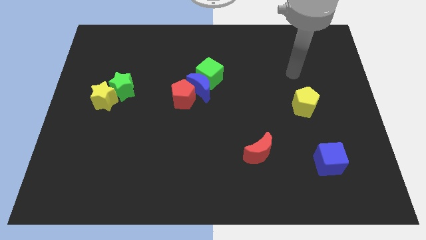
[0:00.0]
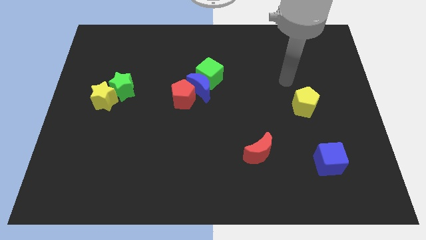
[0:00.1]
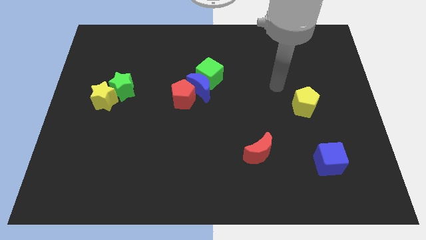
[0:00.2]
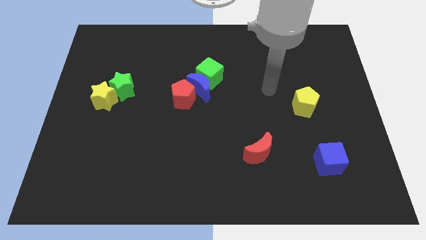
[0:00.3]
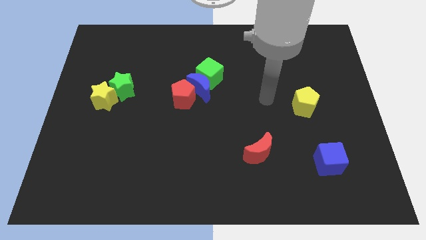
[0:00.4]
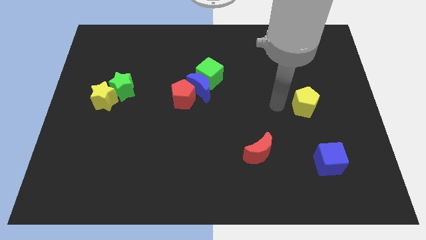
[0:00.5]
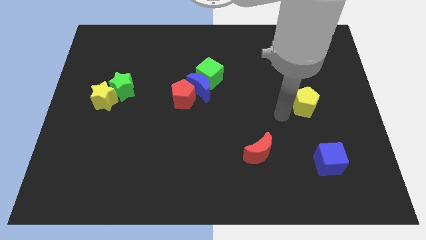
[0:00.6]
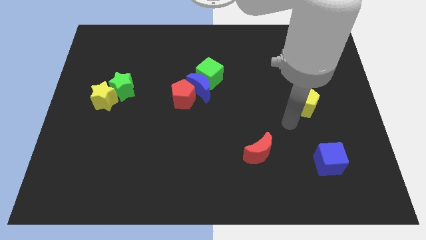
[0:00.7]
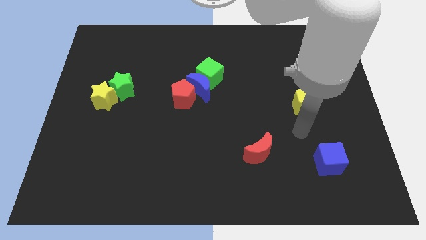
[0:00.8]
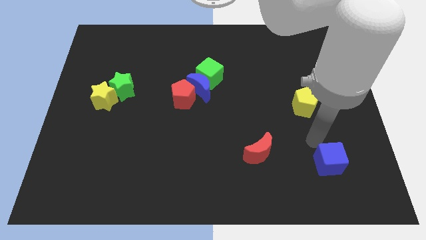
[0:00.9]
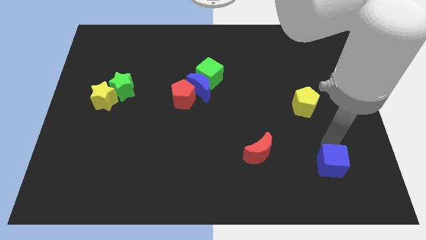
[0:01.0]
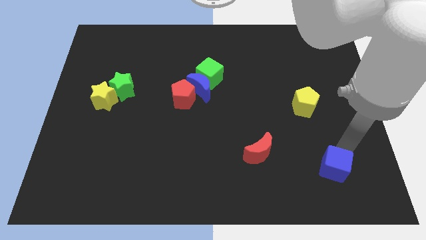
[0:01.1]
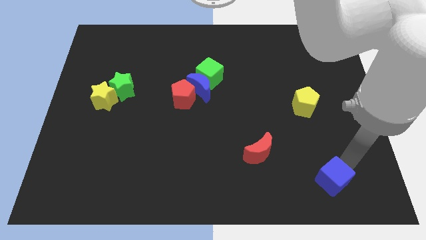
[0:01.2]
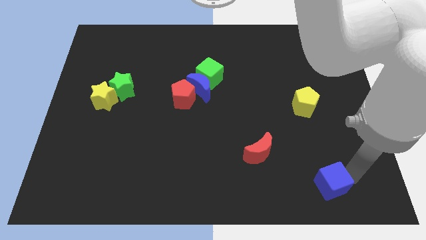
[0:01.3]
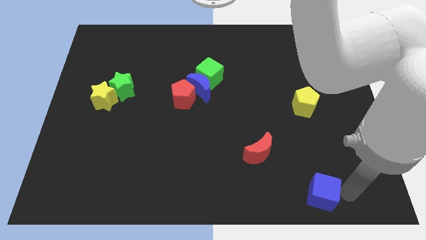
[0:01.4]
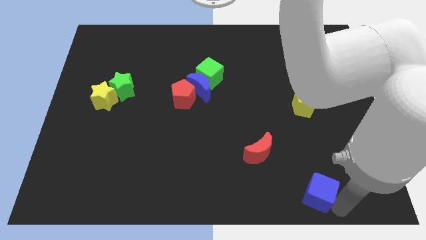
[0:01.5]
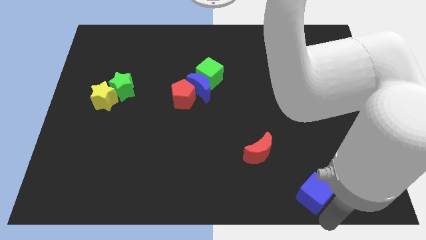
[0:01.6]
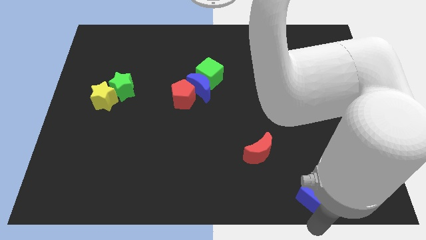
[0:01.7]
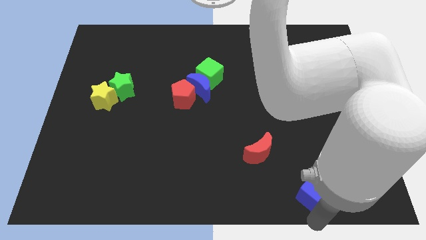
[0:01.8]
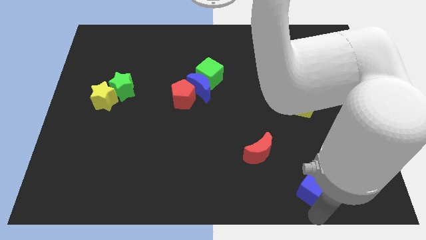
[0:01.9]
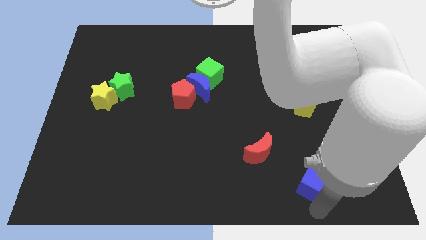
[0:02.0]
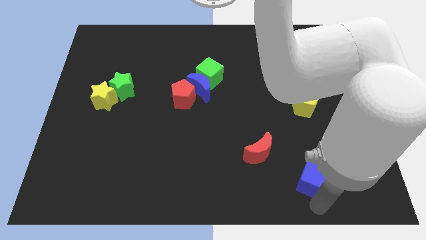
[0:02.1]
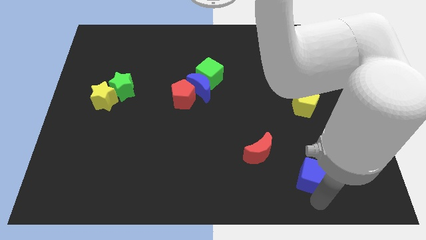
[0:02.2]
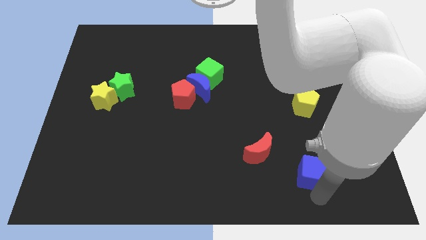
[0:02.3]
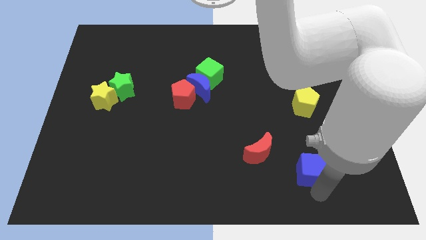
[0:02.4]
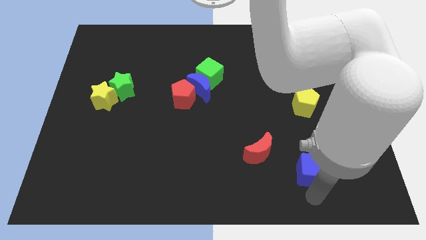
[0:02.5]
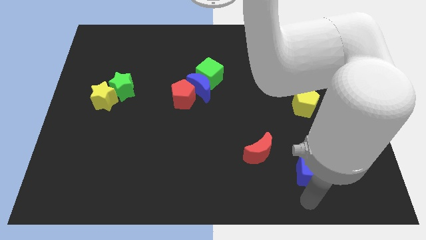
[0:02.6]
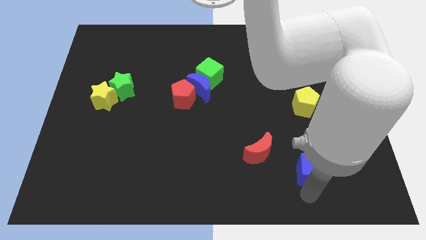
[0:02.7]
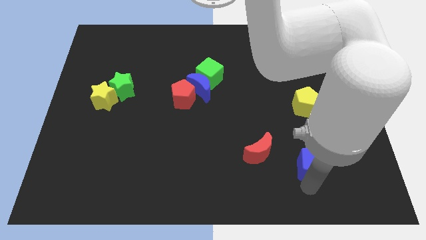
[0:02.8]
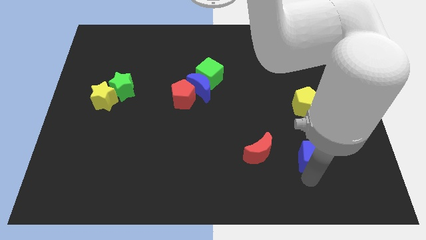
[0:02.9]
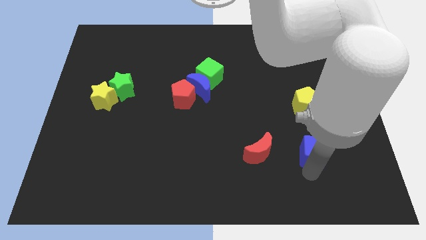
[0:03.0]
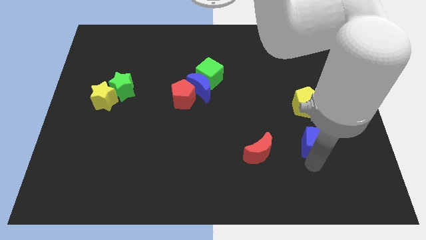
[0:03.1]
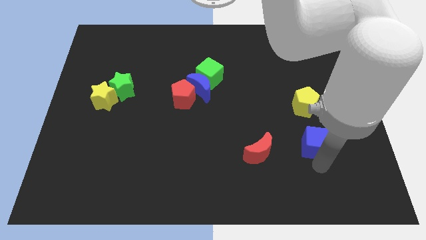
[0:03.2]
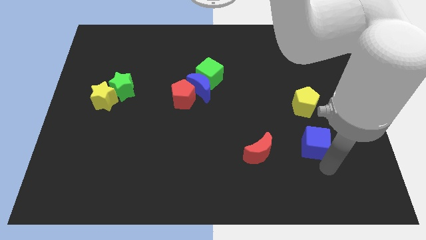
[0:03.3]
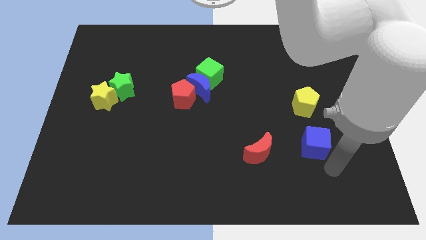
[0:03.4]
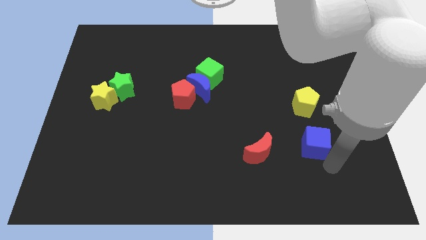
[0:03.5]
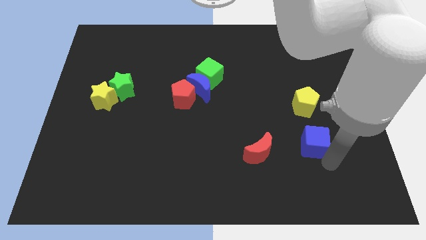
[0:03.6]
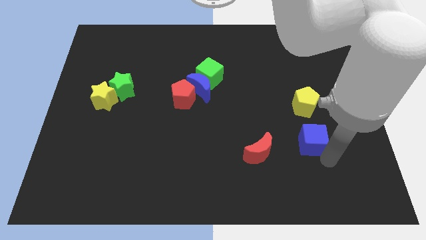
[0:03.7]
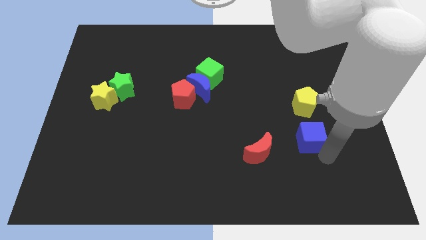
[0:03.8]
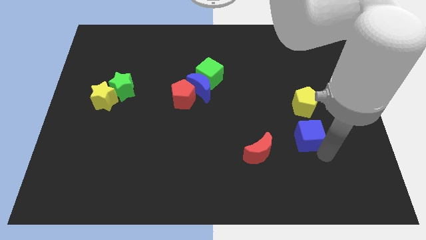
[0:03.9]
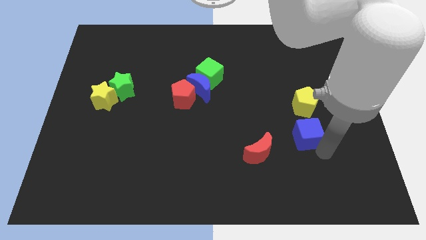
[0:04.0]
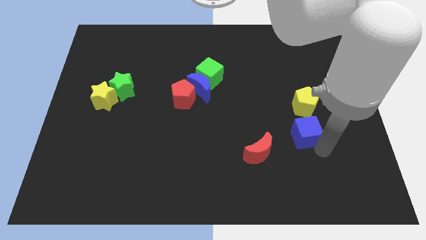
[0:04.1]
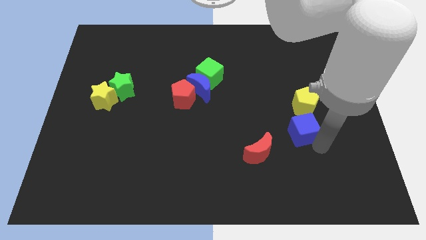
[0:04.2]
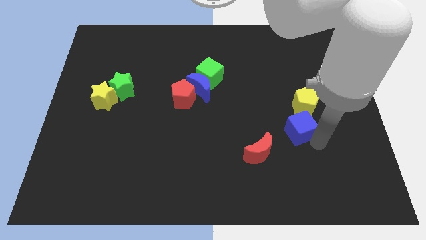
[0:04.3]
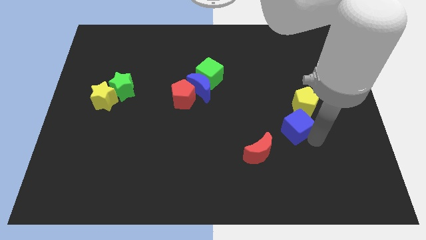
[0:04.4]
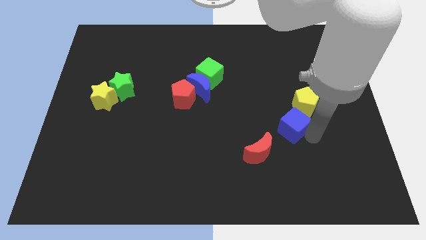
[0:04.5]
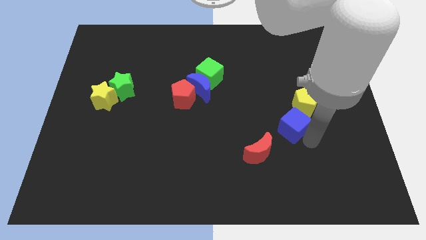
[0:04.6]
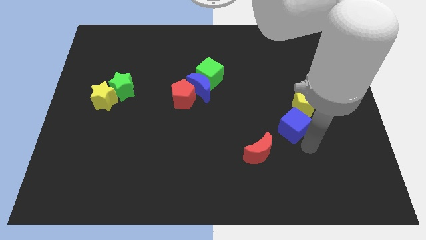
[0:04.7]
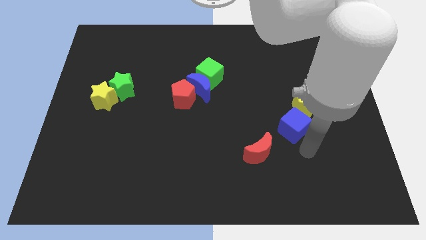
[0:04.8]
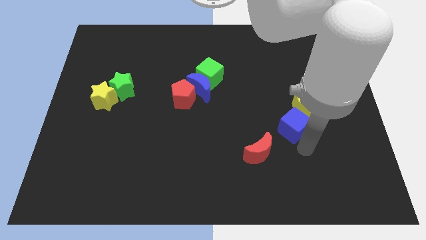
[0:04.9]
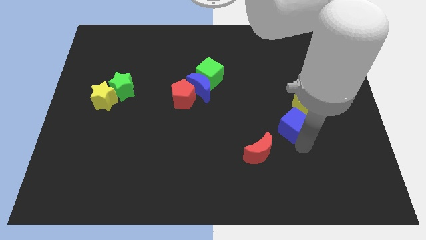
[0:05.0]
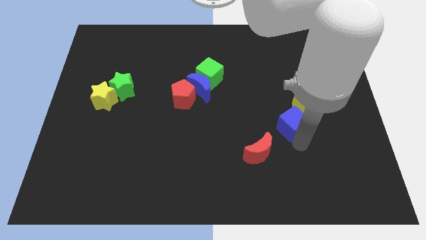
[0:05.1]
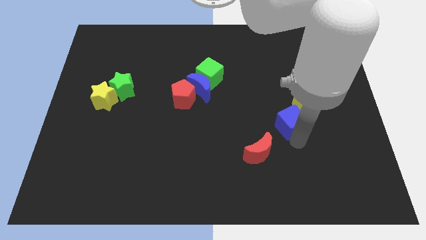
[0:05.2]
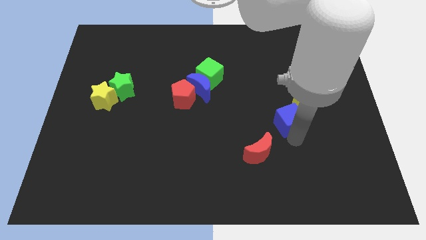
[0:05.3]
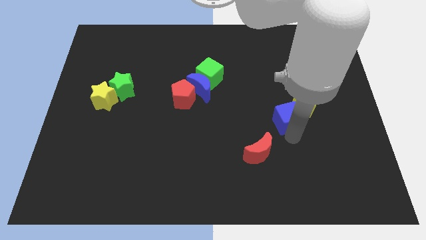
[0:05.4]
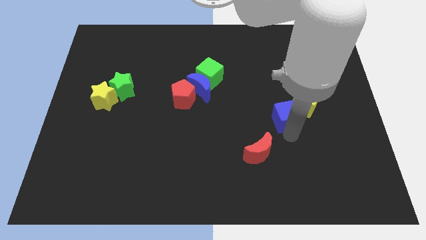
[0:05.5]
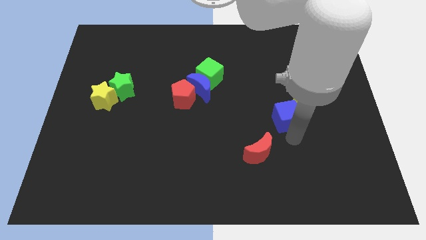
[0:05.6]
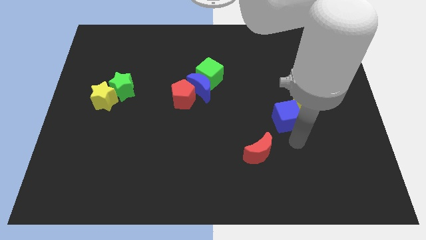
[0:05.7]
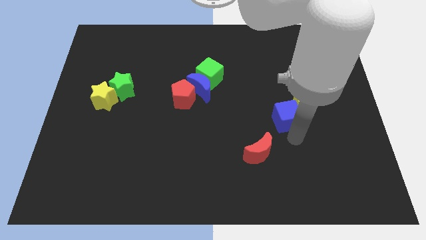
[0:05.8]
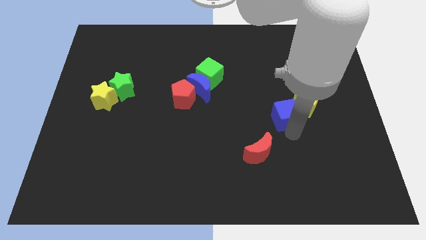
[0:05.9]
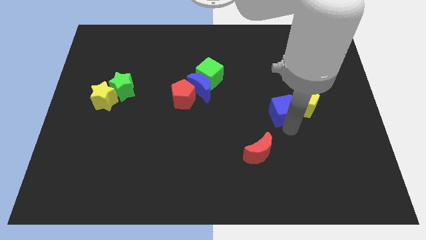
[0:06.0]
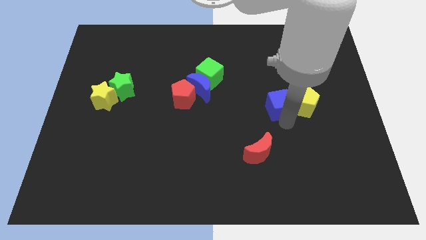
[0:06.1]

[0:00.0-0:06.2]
move the blue cube diagonally up and to the left of the yellow pentagon
